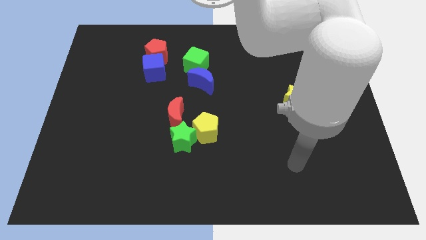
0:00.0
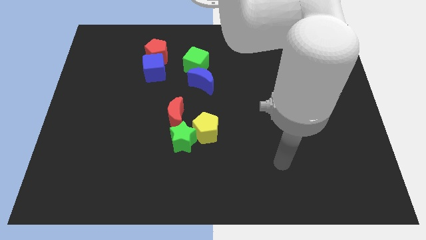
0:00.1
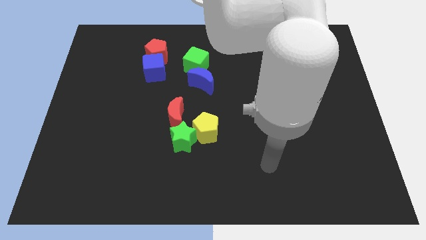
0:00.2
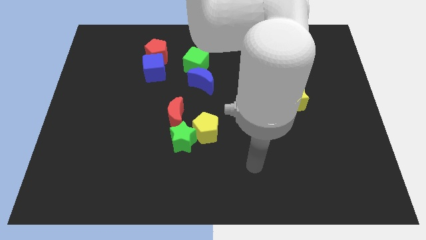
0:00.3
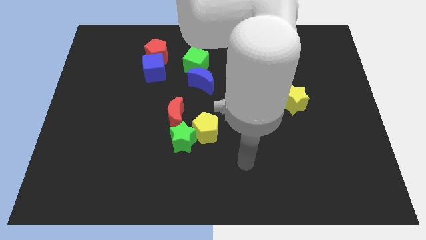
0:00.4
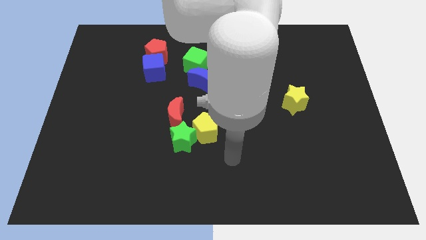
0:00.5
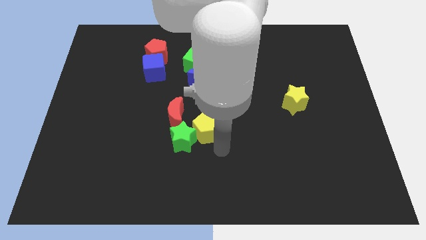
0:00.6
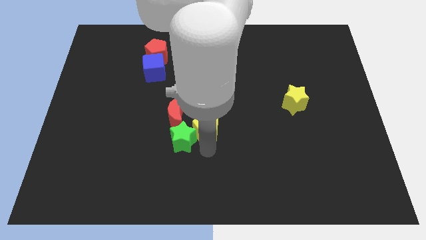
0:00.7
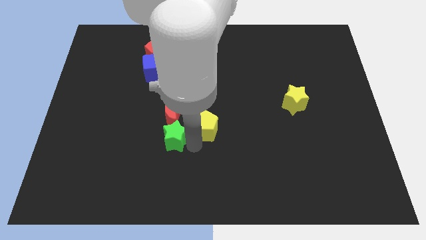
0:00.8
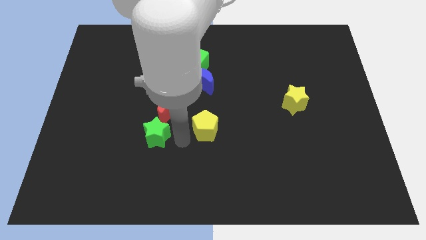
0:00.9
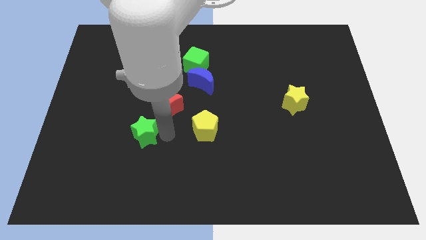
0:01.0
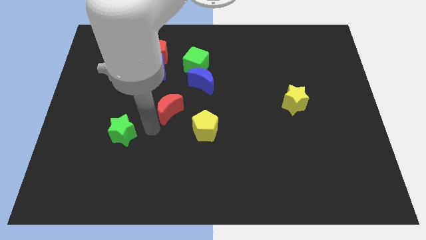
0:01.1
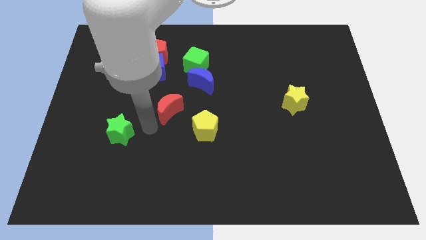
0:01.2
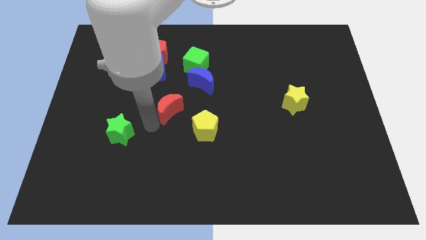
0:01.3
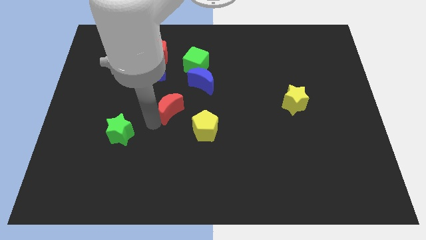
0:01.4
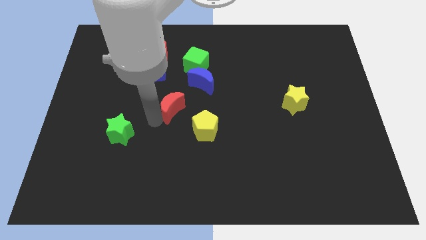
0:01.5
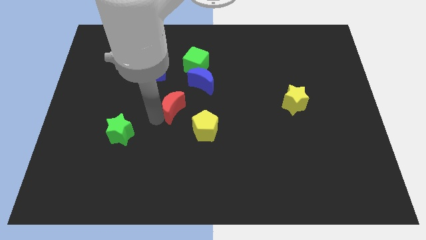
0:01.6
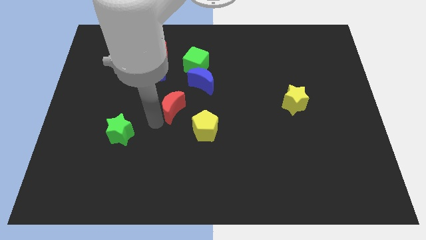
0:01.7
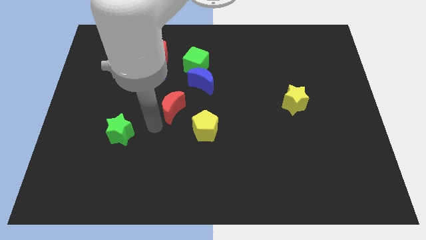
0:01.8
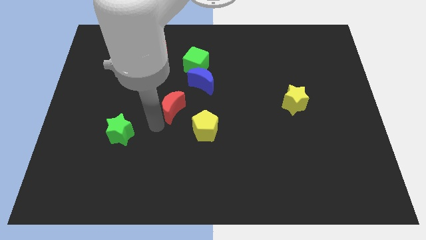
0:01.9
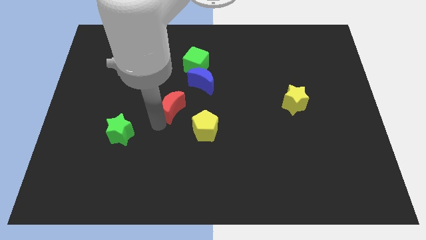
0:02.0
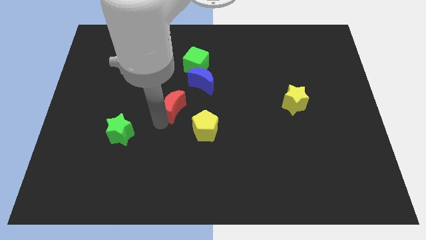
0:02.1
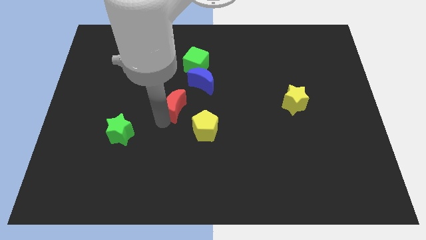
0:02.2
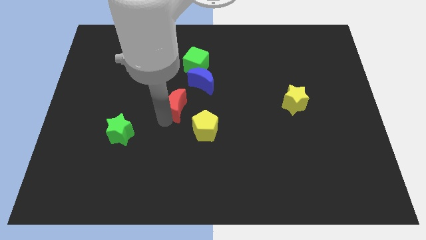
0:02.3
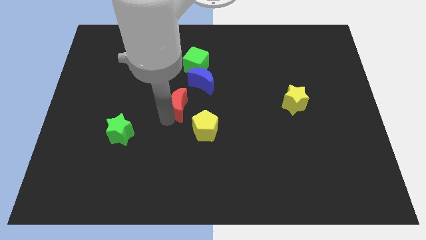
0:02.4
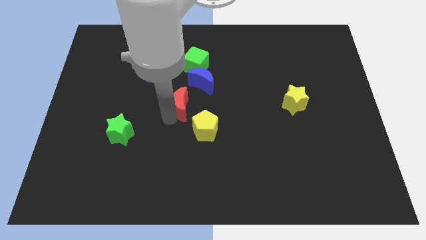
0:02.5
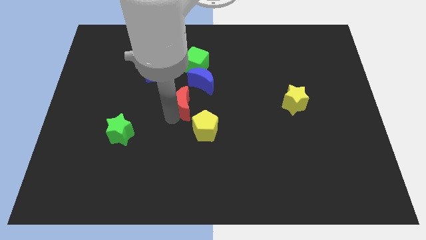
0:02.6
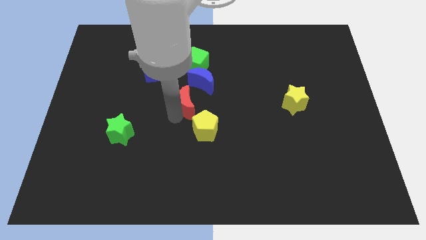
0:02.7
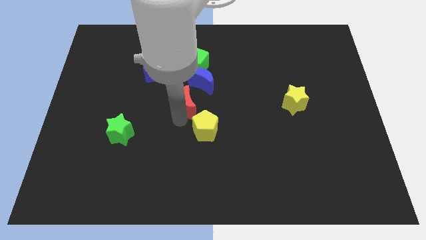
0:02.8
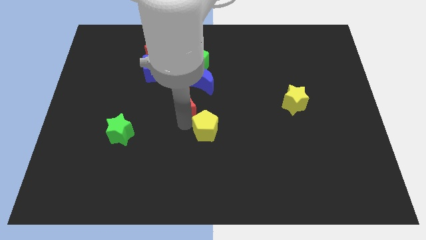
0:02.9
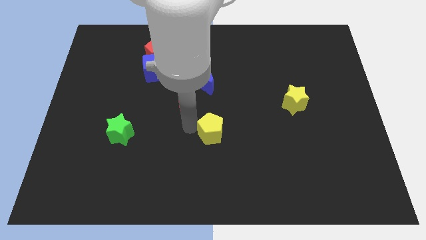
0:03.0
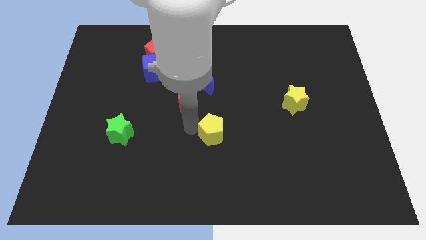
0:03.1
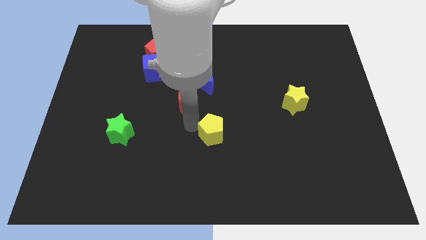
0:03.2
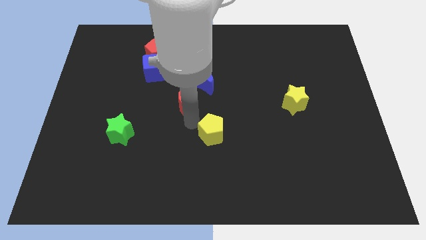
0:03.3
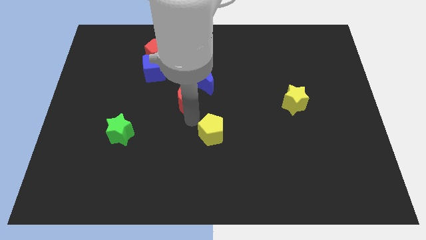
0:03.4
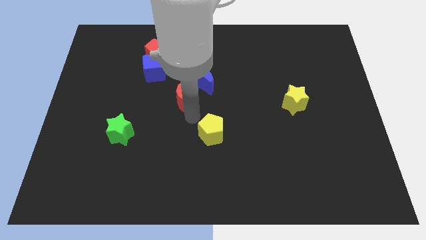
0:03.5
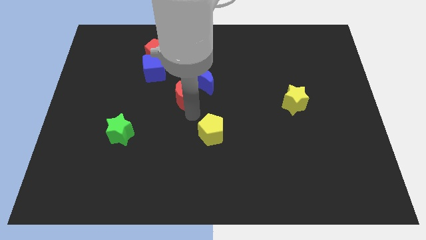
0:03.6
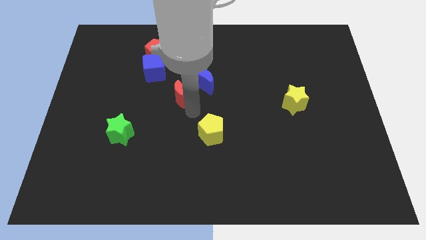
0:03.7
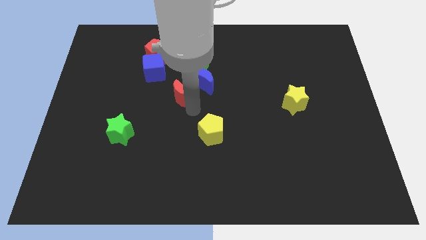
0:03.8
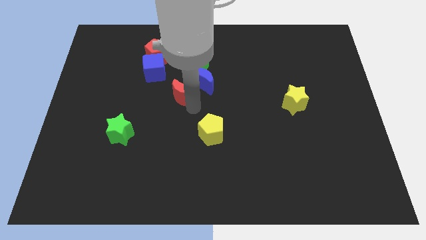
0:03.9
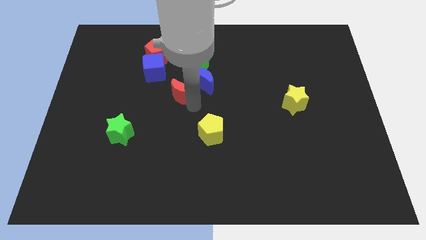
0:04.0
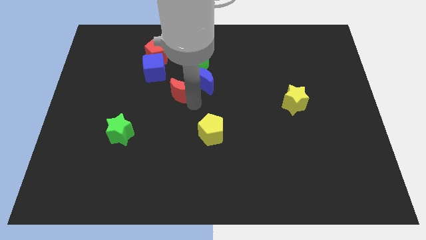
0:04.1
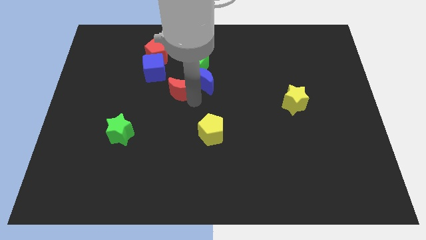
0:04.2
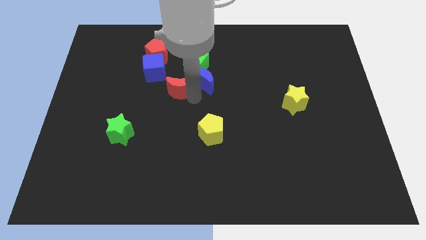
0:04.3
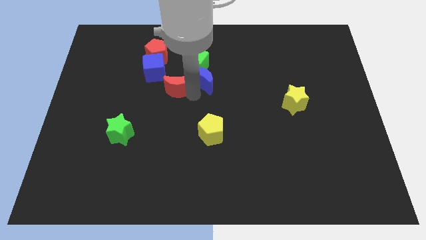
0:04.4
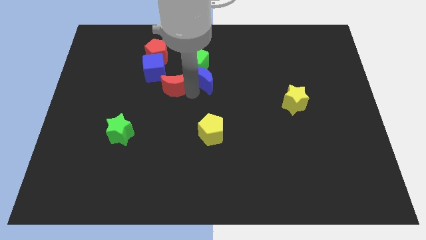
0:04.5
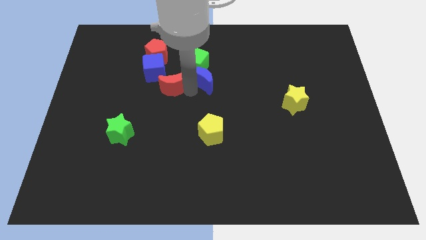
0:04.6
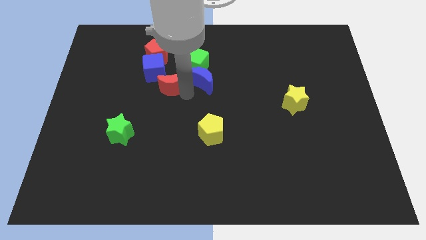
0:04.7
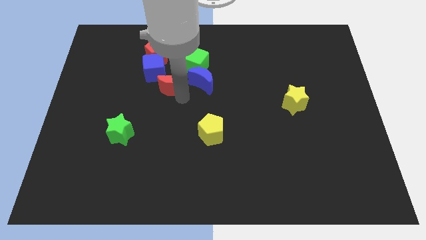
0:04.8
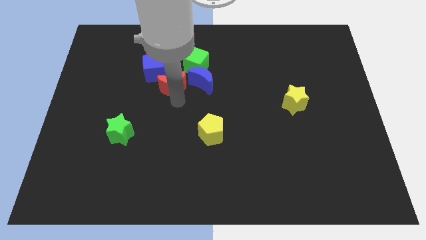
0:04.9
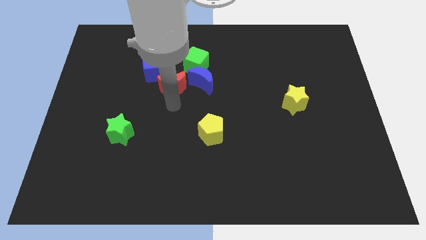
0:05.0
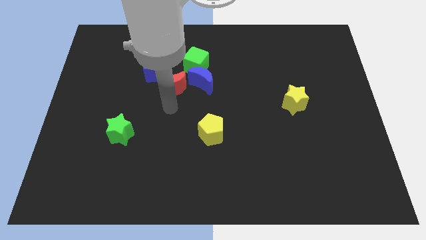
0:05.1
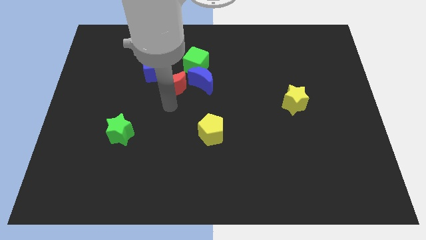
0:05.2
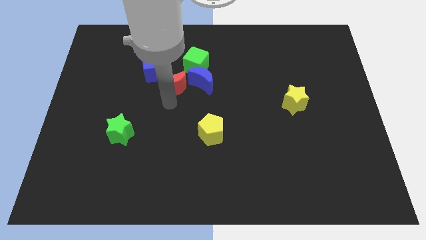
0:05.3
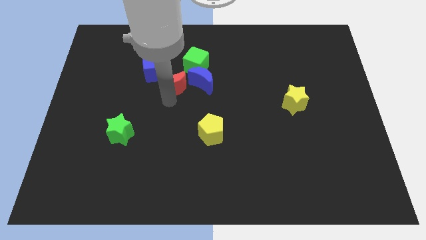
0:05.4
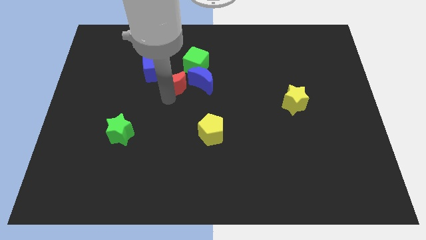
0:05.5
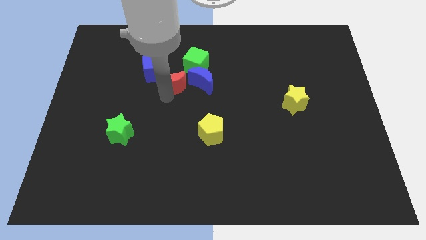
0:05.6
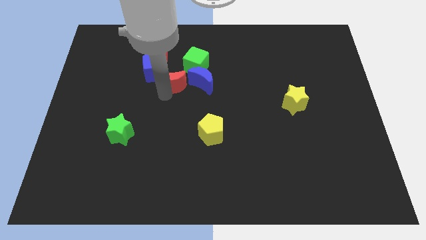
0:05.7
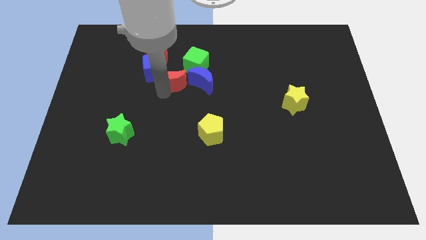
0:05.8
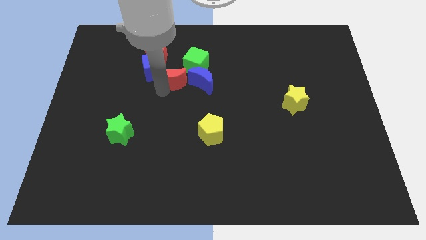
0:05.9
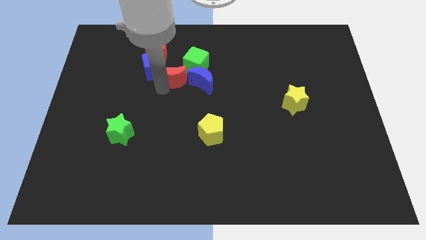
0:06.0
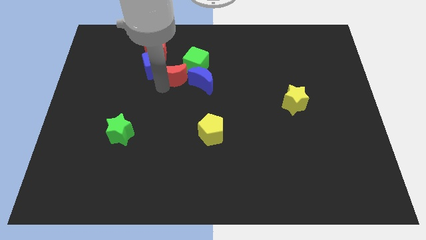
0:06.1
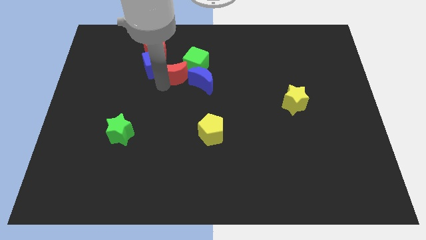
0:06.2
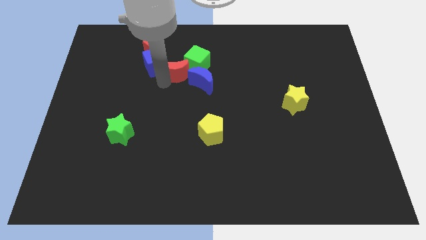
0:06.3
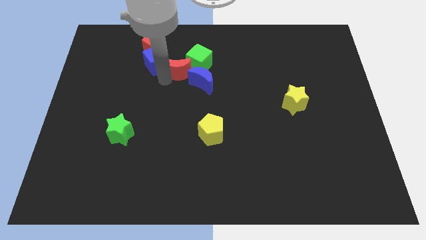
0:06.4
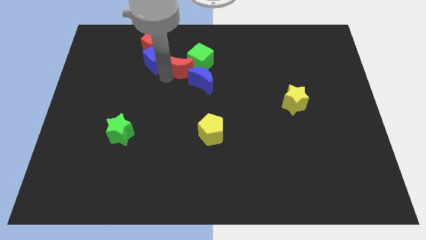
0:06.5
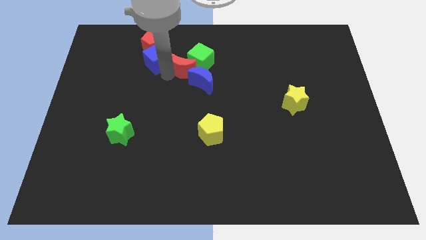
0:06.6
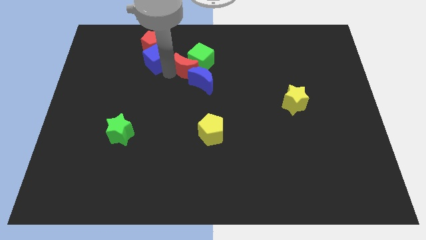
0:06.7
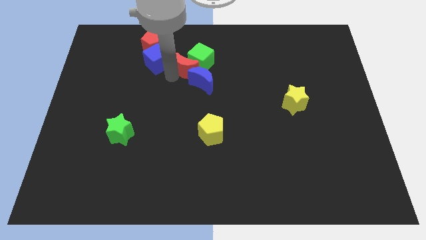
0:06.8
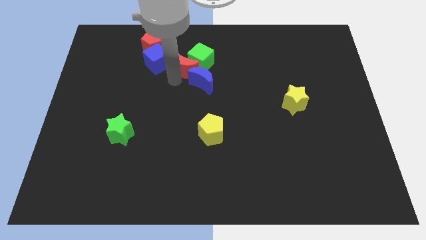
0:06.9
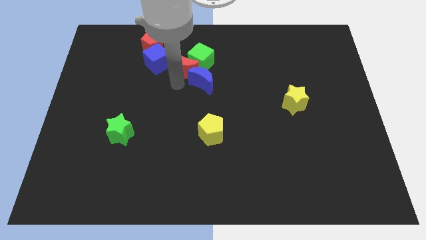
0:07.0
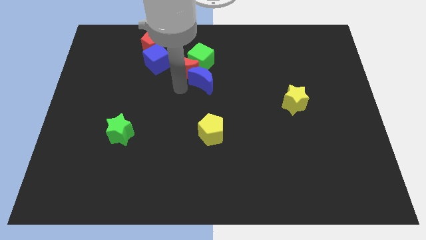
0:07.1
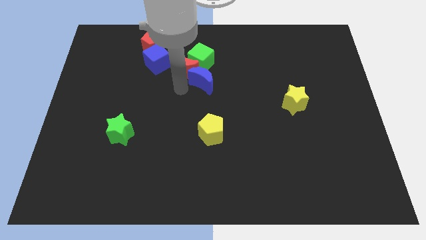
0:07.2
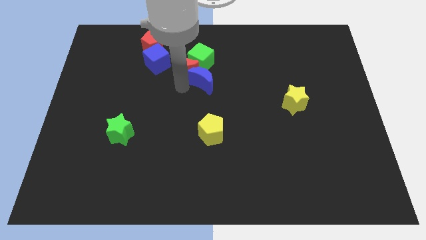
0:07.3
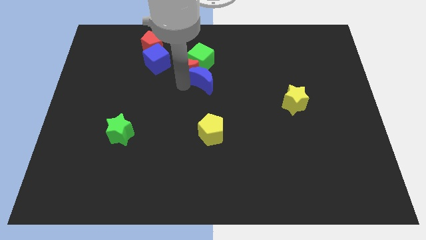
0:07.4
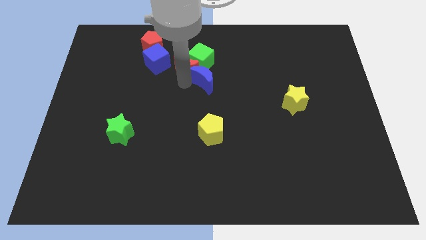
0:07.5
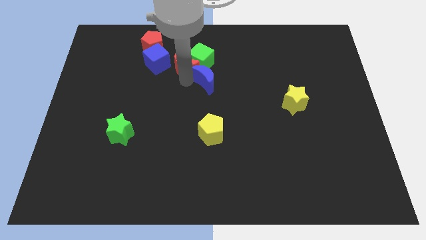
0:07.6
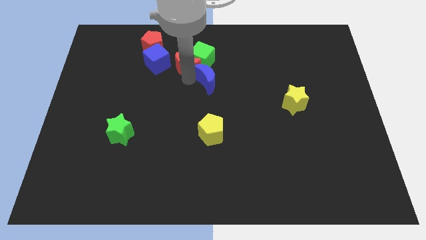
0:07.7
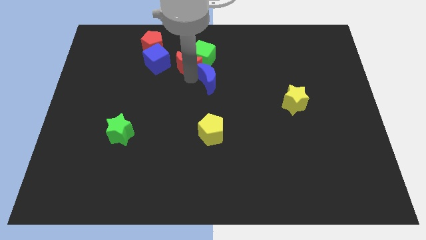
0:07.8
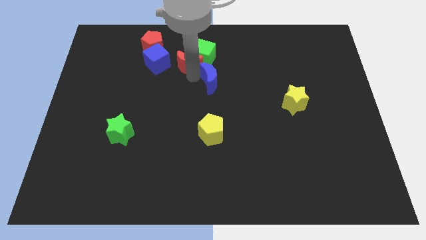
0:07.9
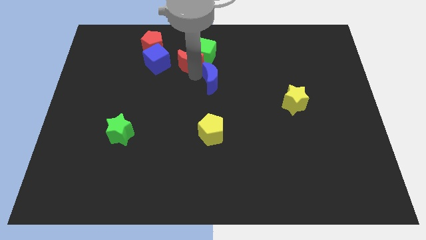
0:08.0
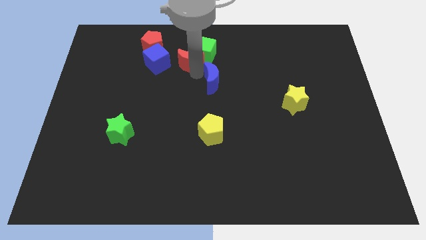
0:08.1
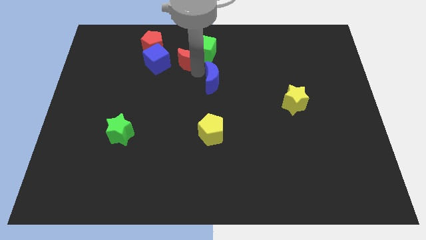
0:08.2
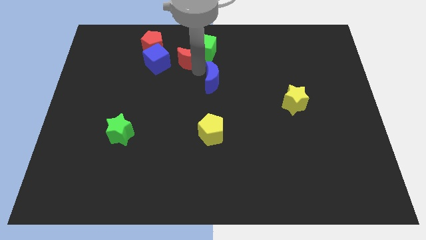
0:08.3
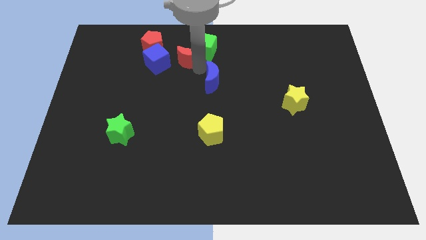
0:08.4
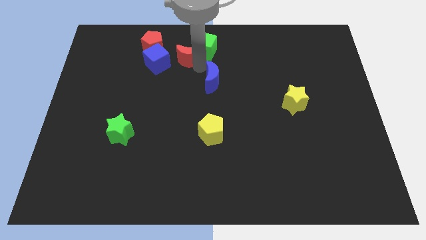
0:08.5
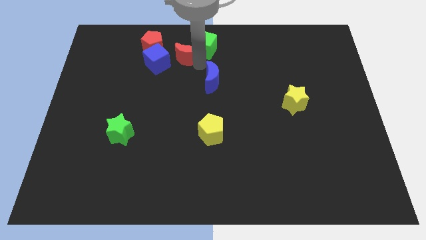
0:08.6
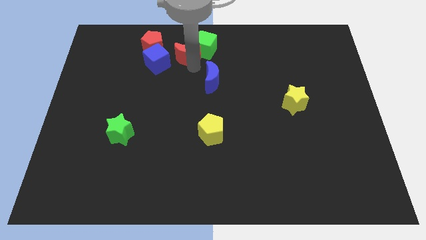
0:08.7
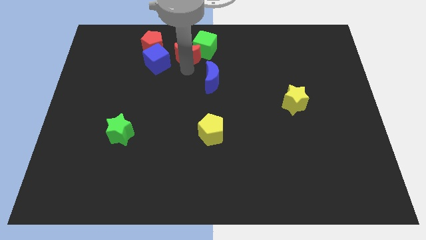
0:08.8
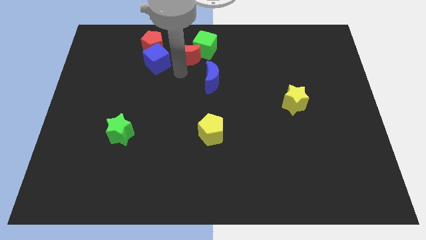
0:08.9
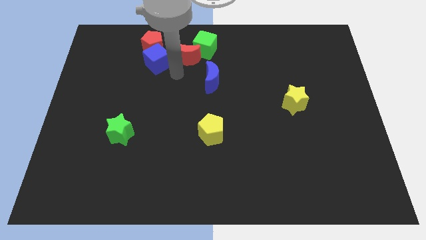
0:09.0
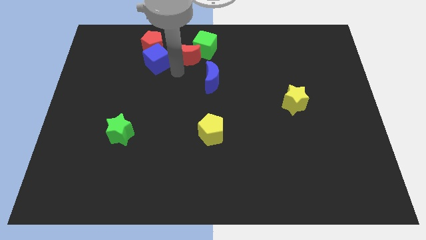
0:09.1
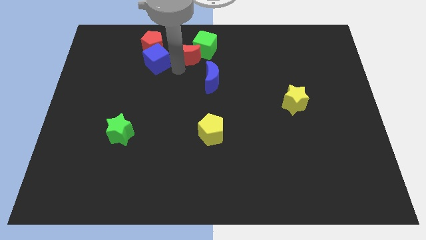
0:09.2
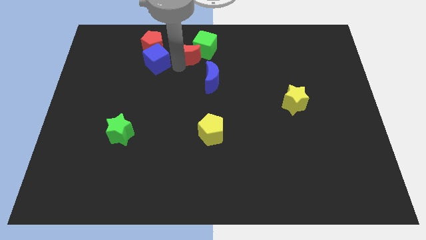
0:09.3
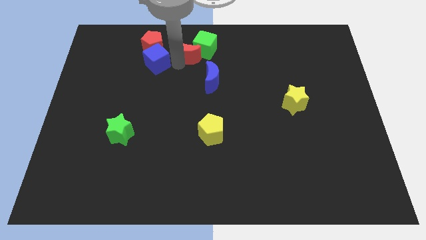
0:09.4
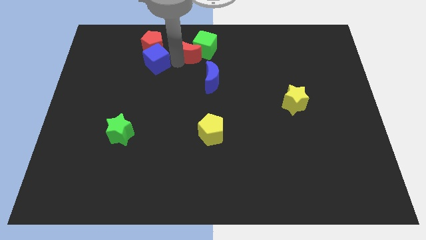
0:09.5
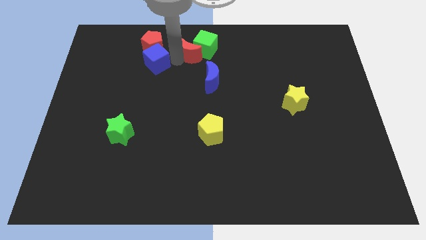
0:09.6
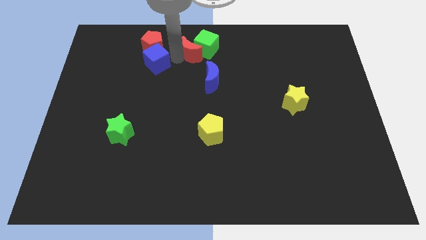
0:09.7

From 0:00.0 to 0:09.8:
push the red moon to the top
